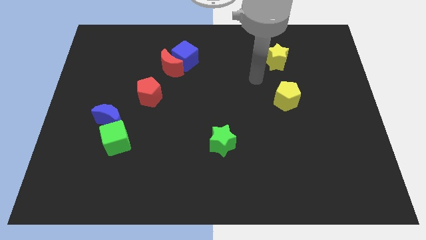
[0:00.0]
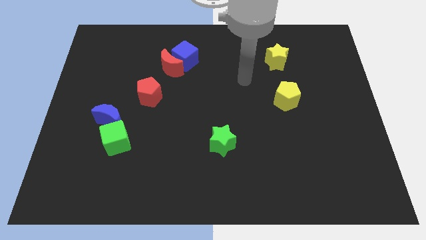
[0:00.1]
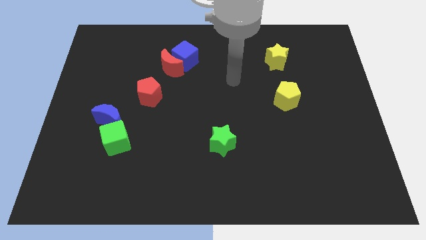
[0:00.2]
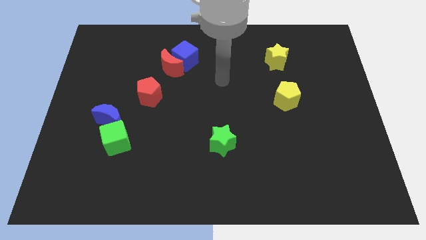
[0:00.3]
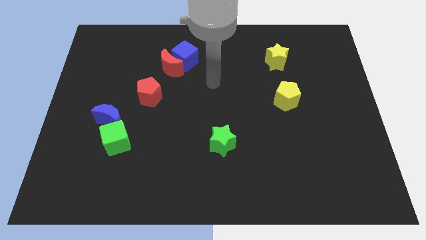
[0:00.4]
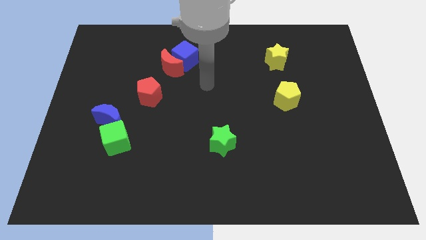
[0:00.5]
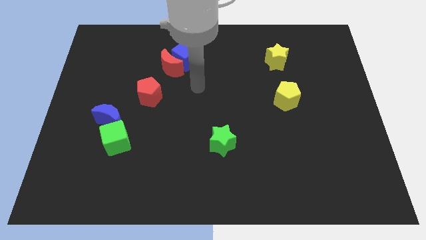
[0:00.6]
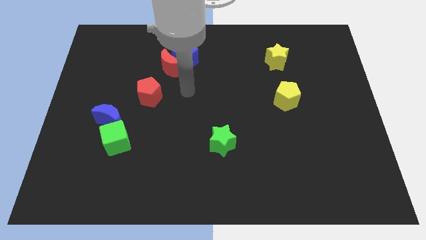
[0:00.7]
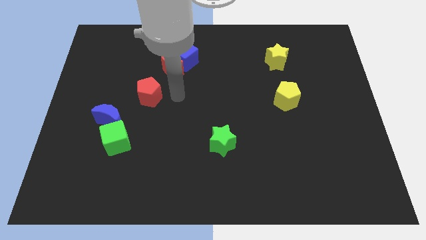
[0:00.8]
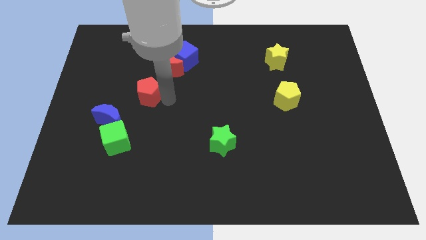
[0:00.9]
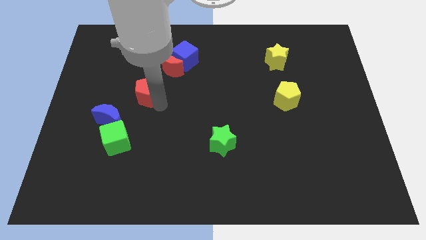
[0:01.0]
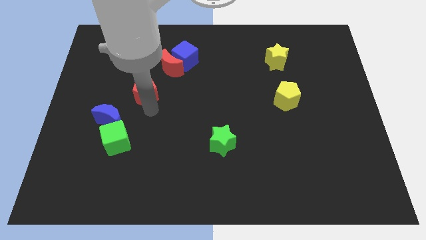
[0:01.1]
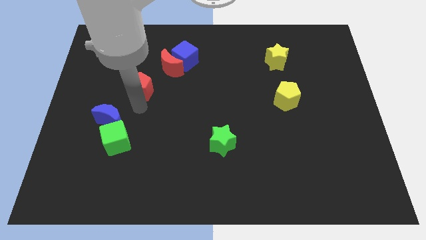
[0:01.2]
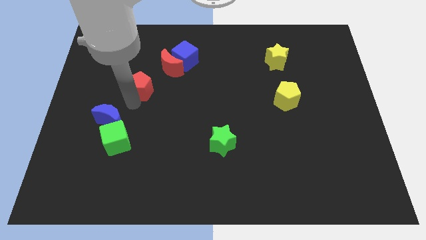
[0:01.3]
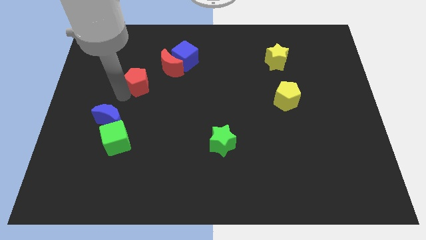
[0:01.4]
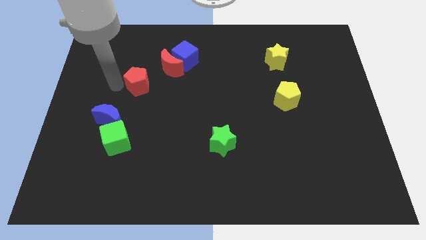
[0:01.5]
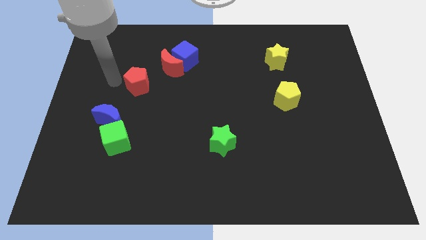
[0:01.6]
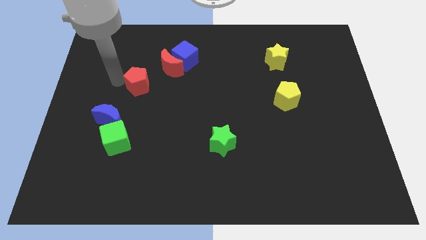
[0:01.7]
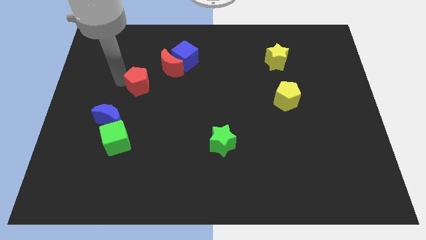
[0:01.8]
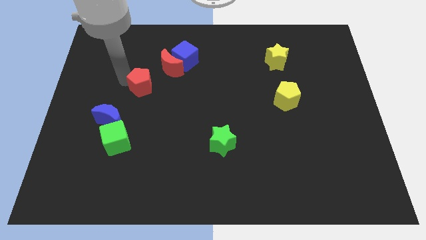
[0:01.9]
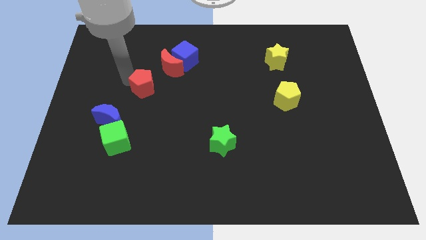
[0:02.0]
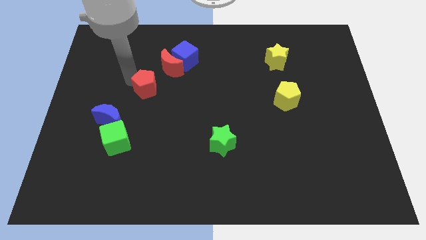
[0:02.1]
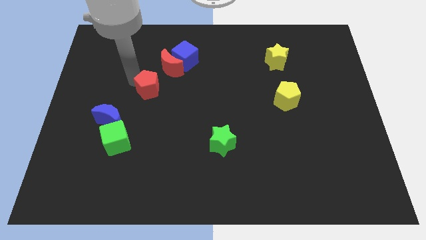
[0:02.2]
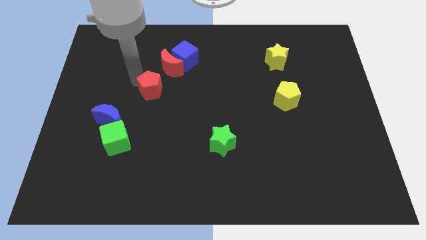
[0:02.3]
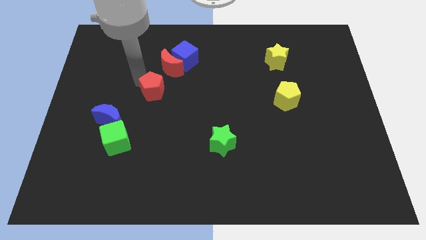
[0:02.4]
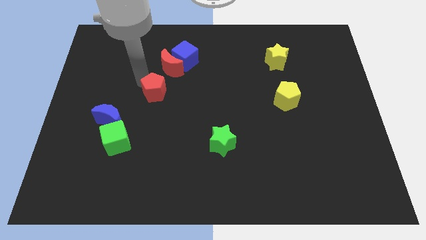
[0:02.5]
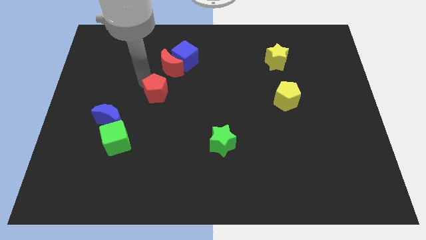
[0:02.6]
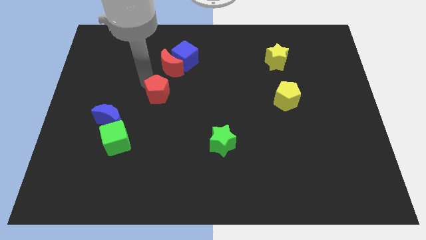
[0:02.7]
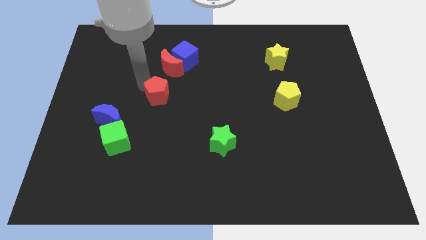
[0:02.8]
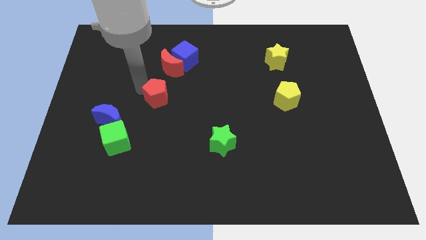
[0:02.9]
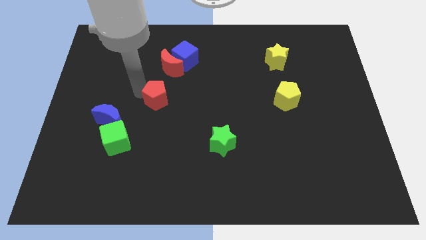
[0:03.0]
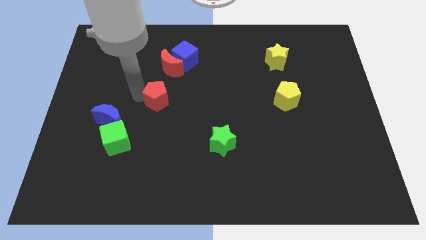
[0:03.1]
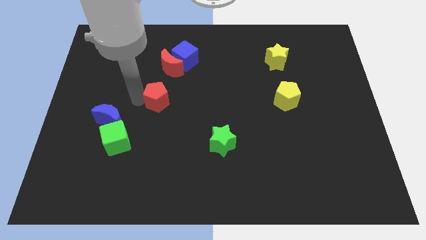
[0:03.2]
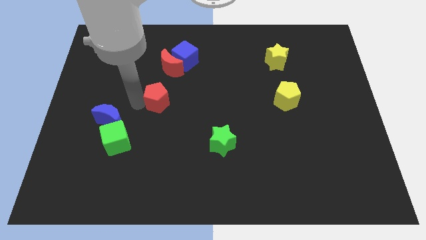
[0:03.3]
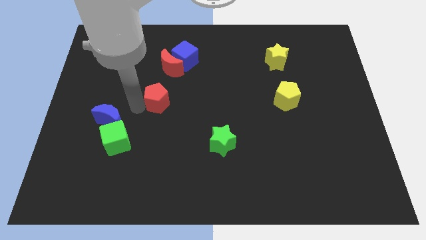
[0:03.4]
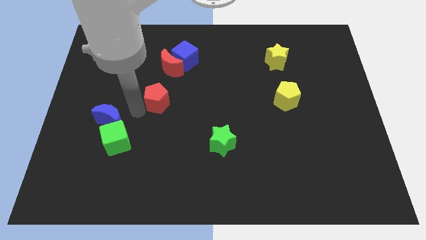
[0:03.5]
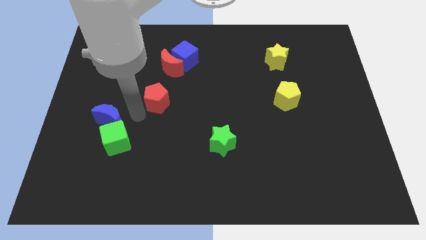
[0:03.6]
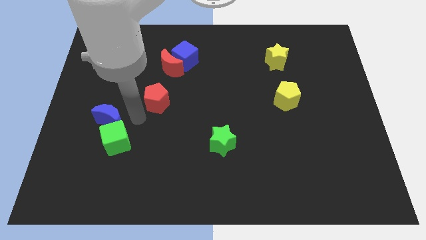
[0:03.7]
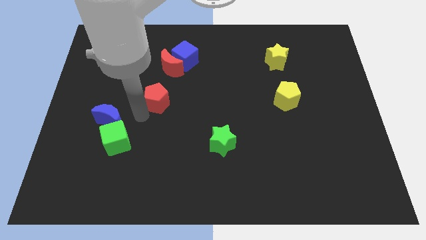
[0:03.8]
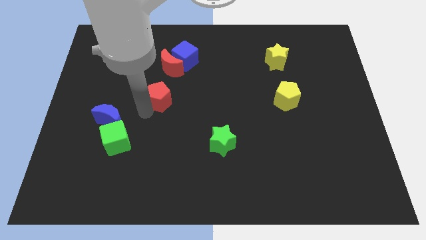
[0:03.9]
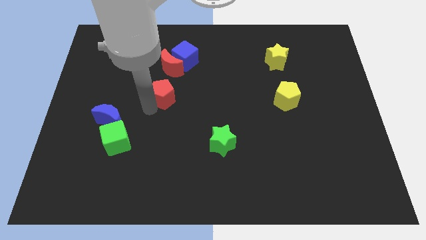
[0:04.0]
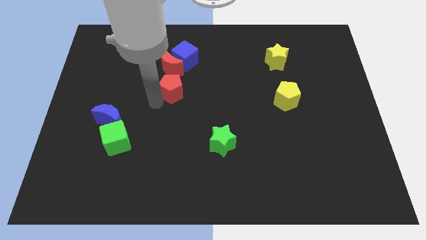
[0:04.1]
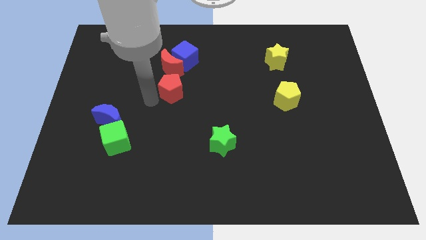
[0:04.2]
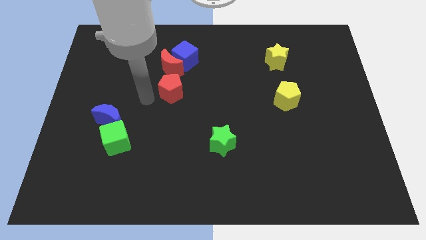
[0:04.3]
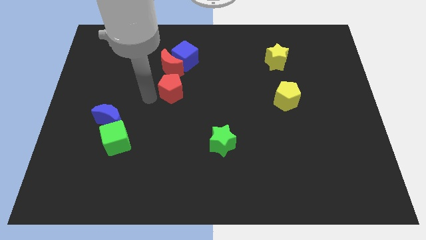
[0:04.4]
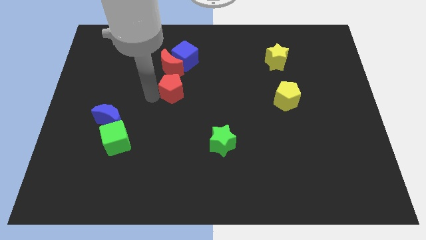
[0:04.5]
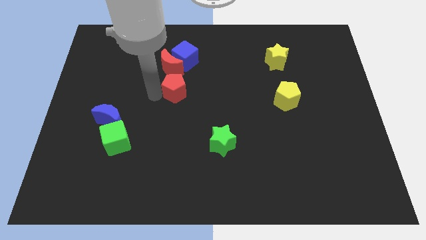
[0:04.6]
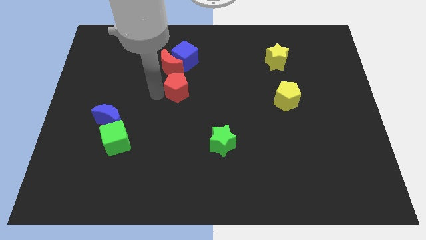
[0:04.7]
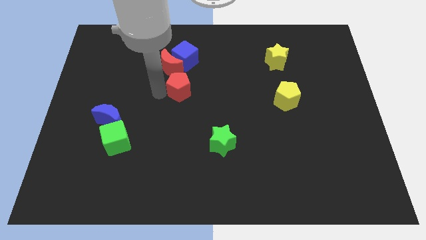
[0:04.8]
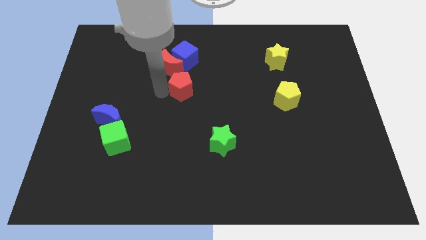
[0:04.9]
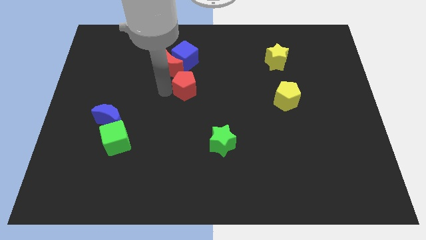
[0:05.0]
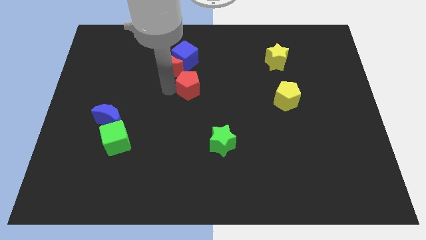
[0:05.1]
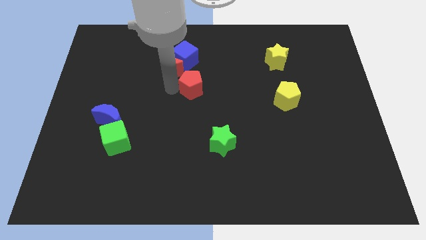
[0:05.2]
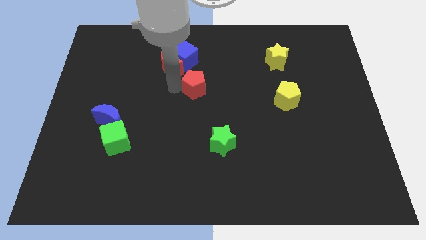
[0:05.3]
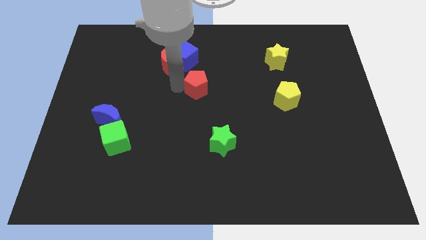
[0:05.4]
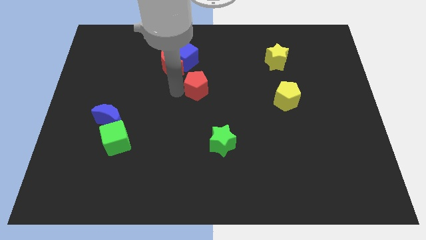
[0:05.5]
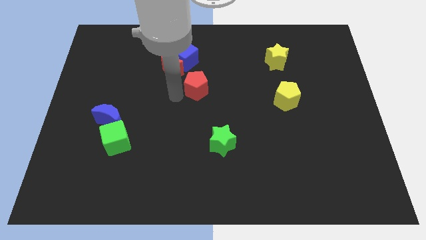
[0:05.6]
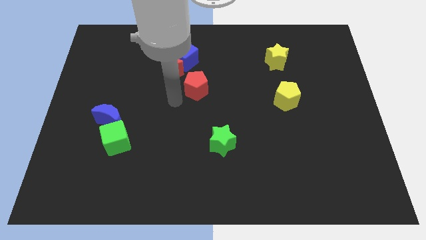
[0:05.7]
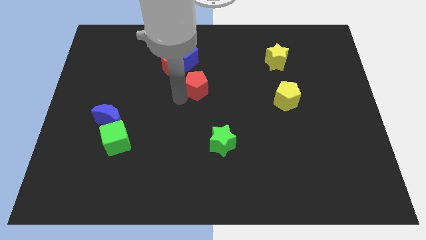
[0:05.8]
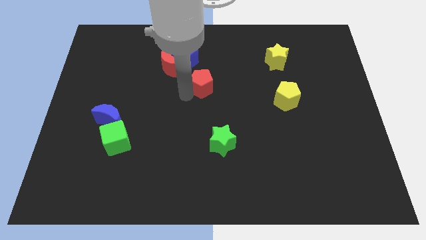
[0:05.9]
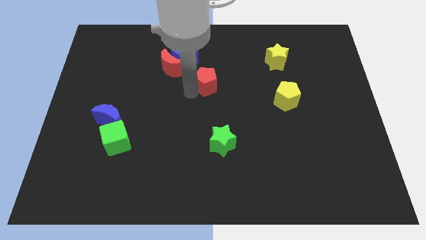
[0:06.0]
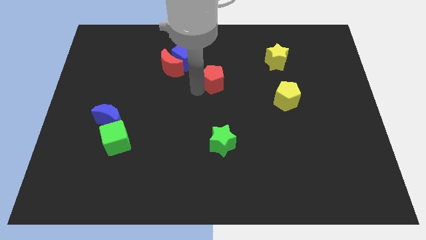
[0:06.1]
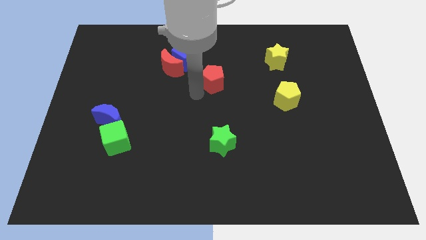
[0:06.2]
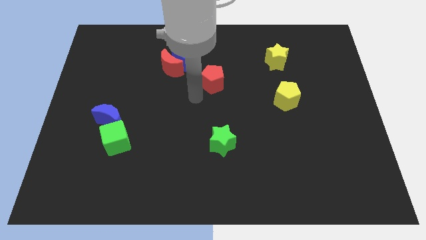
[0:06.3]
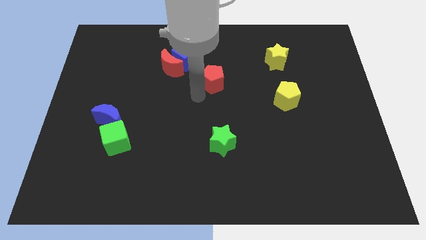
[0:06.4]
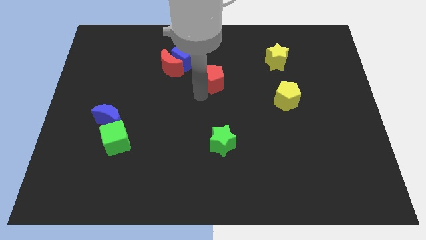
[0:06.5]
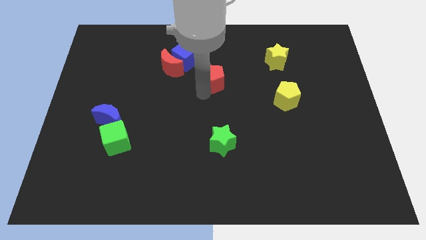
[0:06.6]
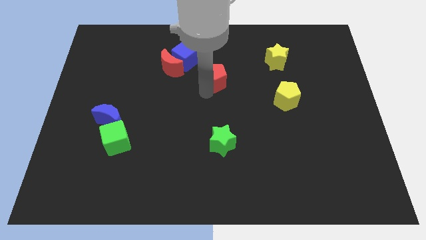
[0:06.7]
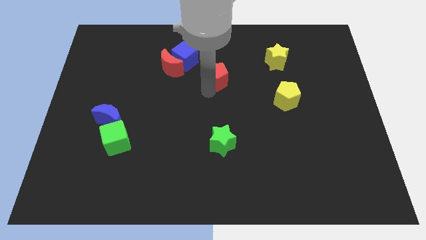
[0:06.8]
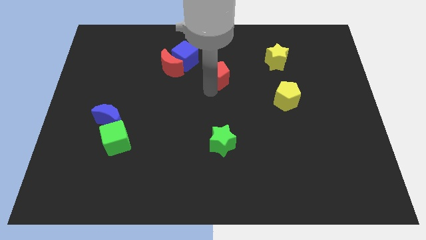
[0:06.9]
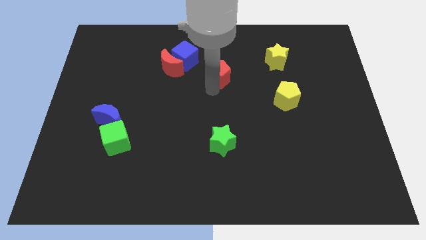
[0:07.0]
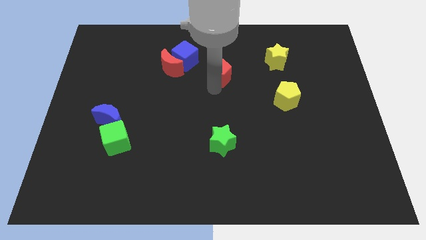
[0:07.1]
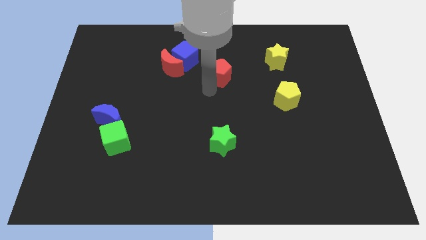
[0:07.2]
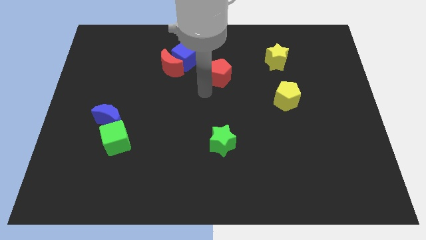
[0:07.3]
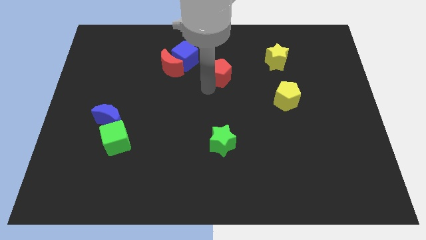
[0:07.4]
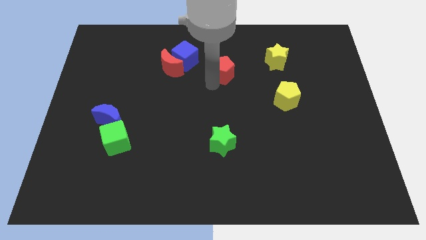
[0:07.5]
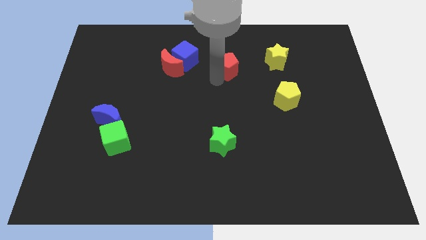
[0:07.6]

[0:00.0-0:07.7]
slide the red pentagon to the left side of the yellow star
